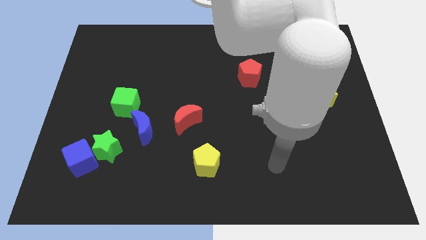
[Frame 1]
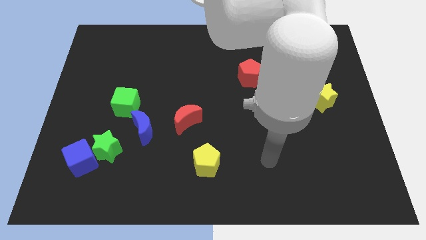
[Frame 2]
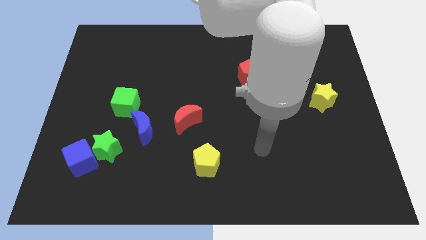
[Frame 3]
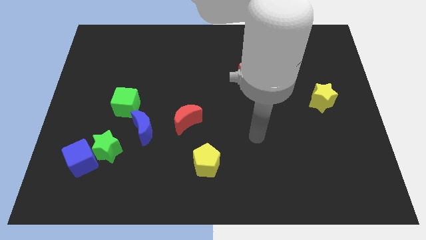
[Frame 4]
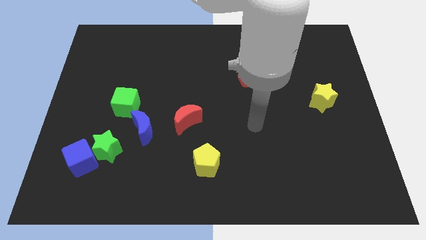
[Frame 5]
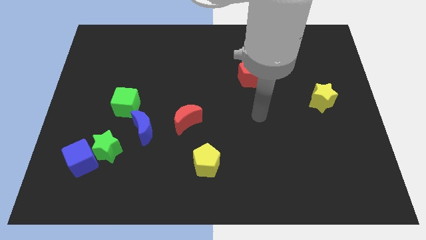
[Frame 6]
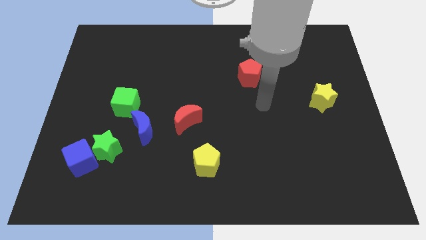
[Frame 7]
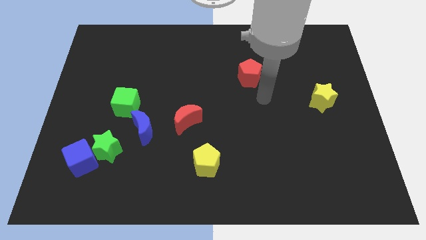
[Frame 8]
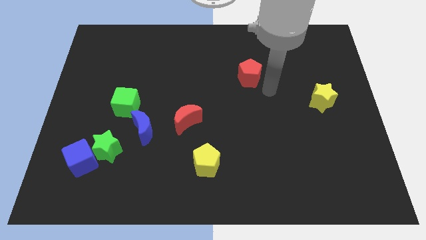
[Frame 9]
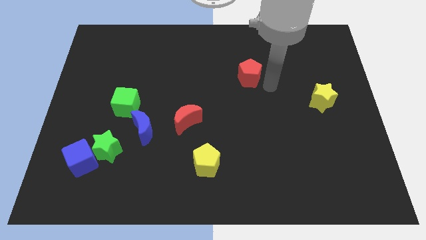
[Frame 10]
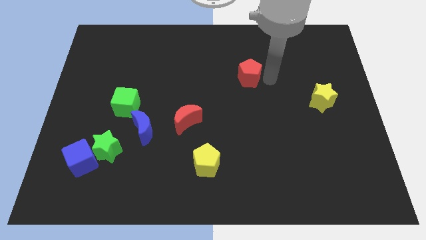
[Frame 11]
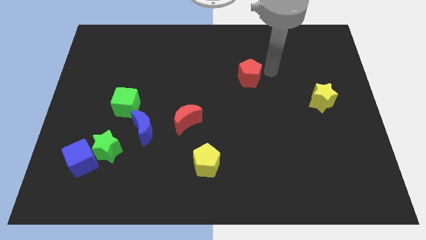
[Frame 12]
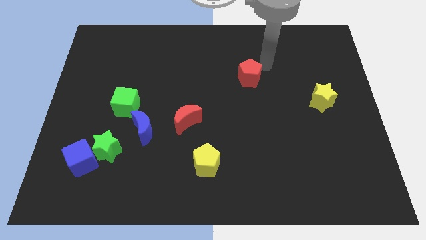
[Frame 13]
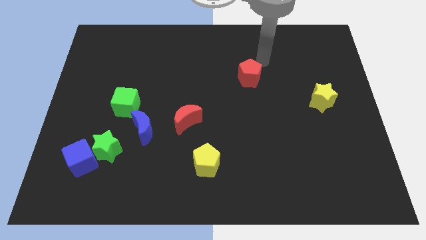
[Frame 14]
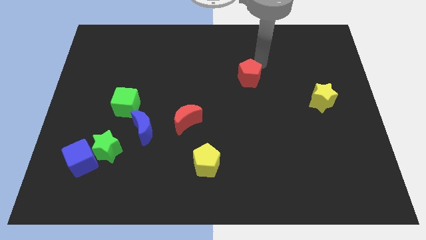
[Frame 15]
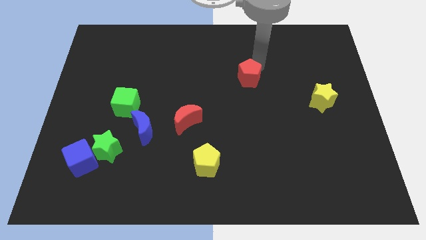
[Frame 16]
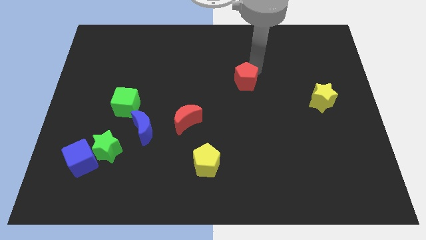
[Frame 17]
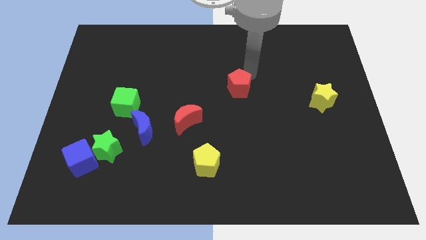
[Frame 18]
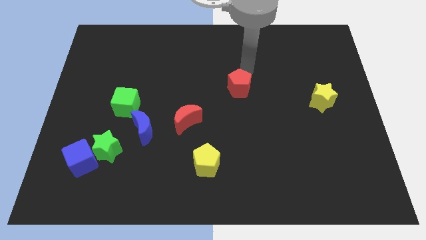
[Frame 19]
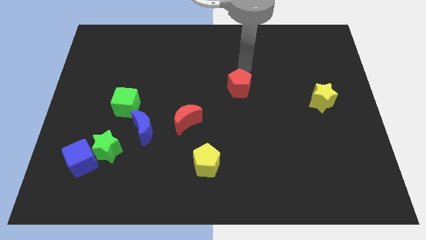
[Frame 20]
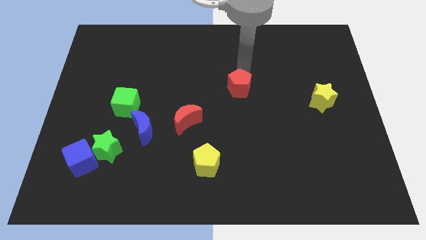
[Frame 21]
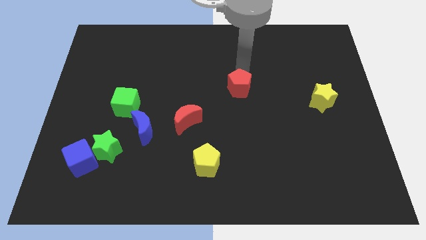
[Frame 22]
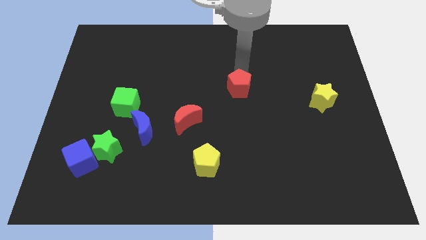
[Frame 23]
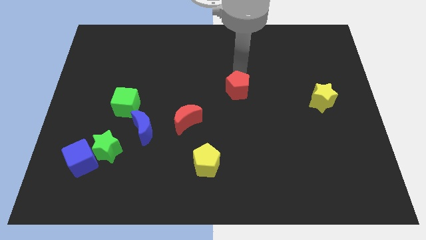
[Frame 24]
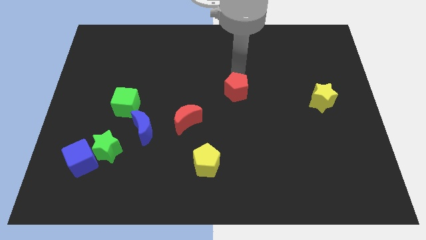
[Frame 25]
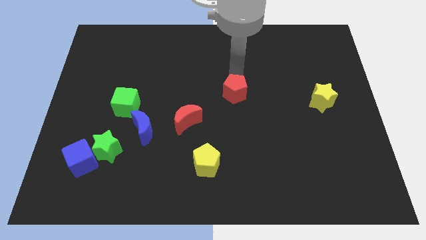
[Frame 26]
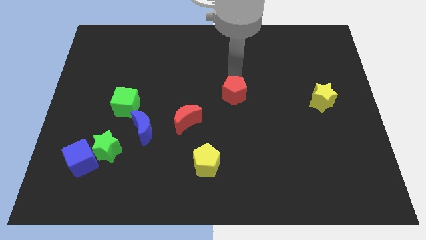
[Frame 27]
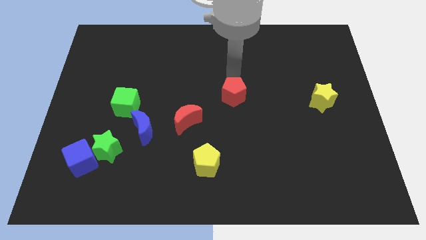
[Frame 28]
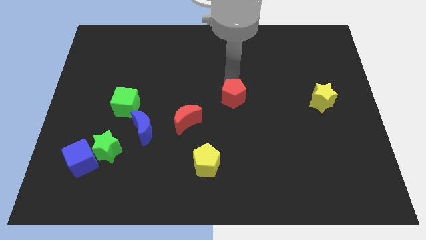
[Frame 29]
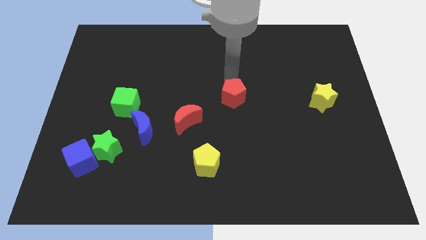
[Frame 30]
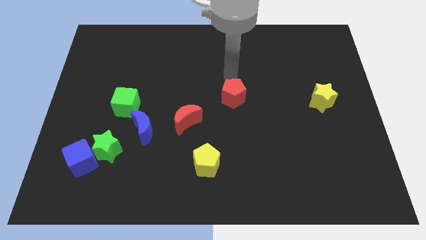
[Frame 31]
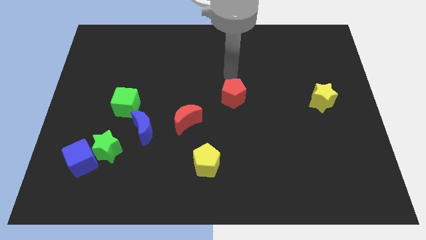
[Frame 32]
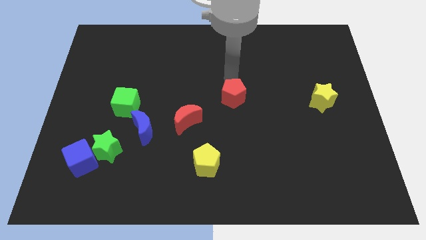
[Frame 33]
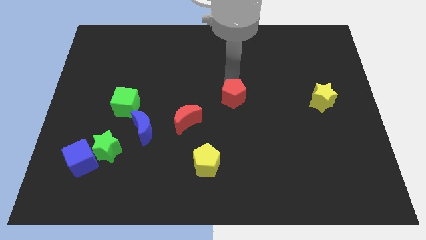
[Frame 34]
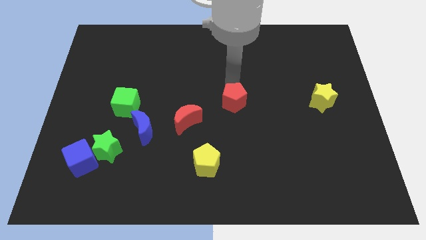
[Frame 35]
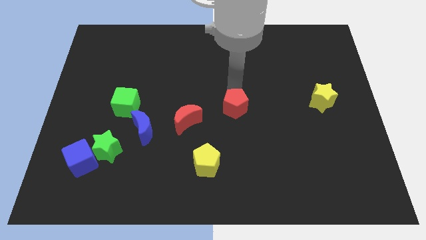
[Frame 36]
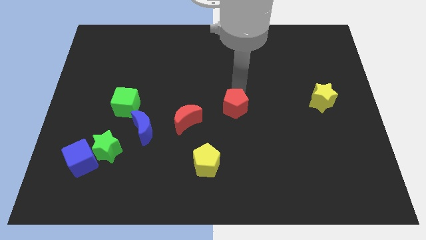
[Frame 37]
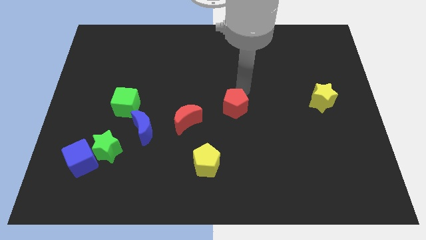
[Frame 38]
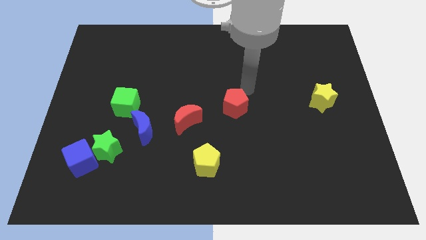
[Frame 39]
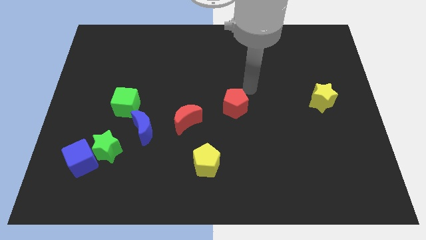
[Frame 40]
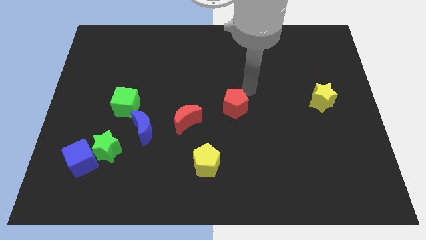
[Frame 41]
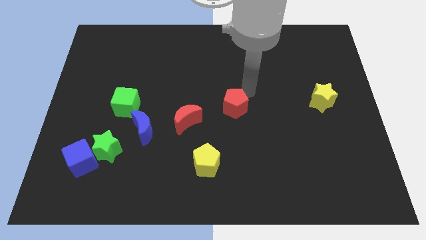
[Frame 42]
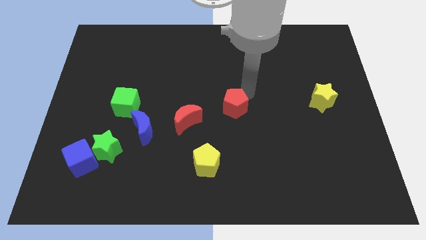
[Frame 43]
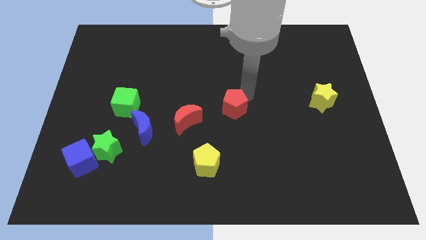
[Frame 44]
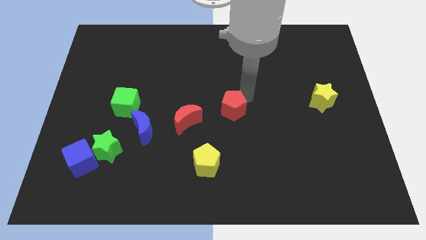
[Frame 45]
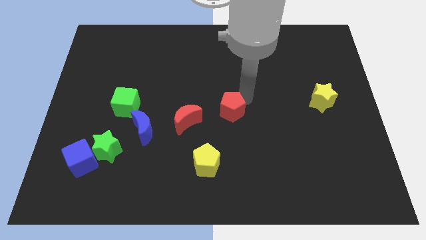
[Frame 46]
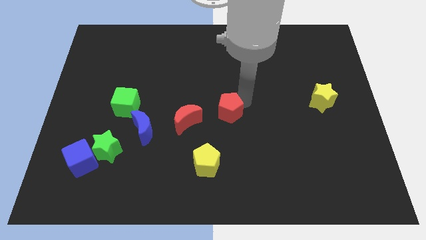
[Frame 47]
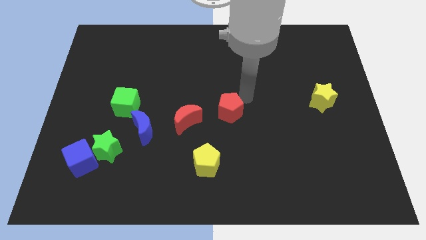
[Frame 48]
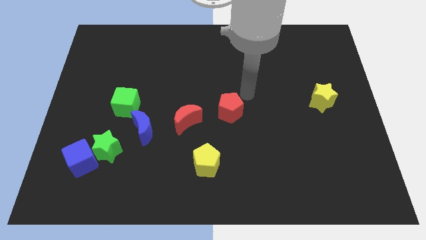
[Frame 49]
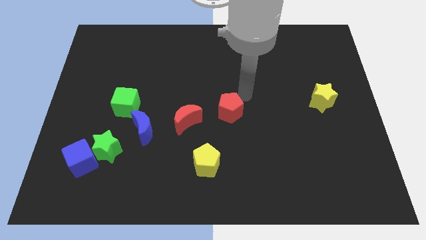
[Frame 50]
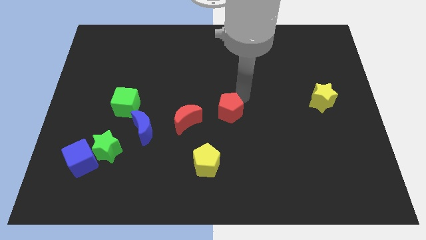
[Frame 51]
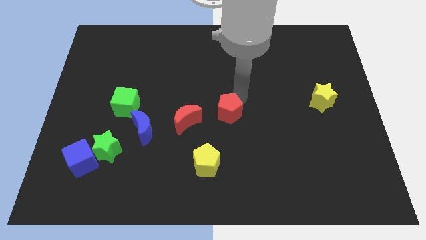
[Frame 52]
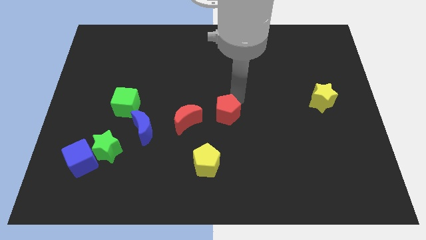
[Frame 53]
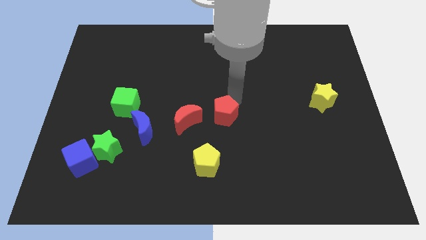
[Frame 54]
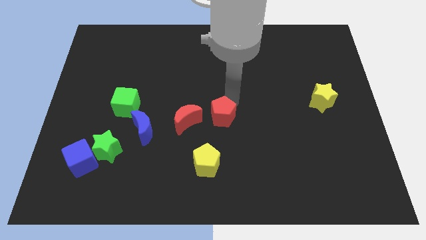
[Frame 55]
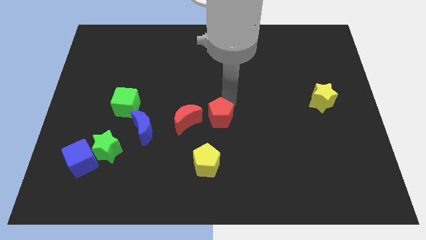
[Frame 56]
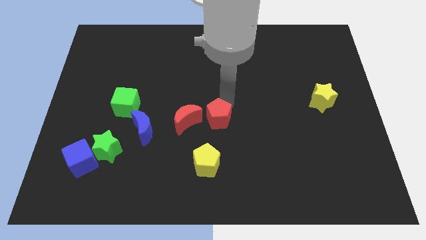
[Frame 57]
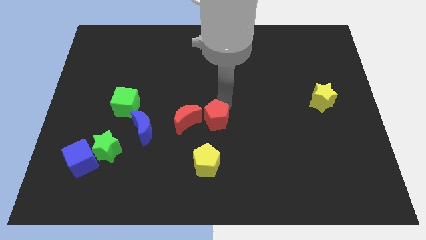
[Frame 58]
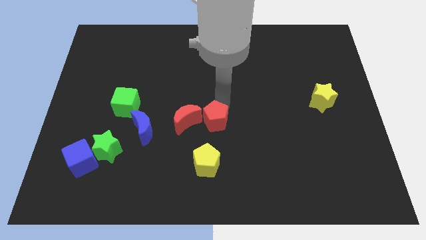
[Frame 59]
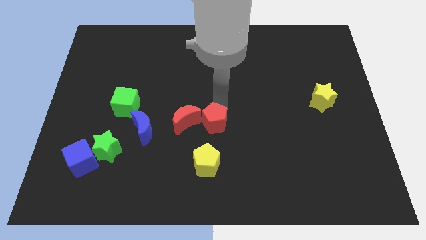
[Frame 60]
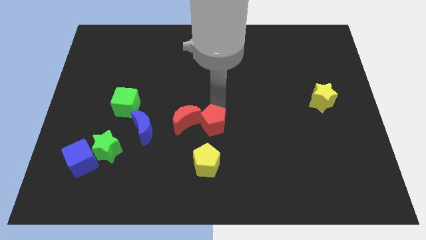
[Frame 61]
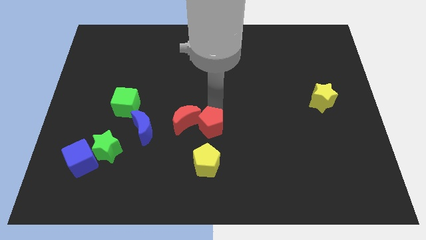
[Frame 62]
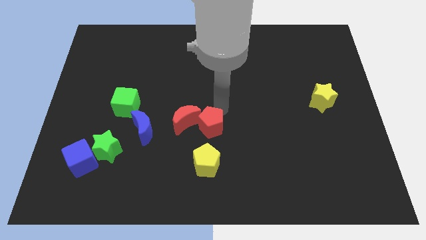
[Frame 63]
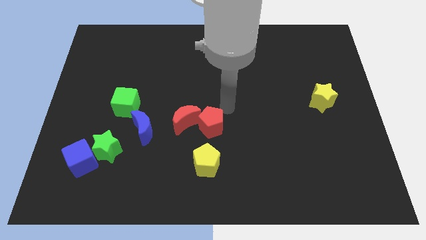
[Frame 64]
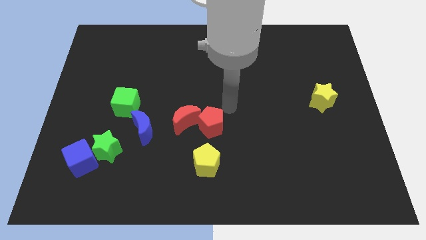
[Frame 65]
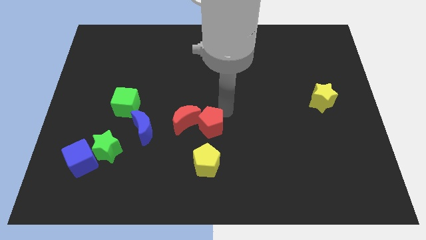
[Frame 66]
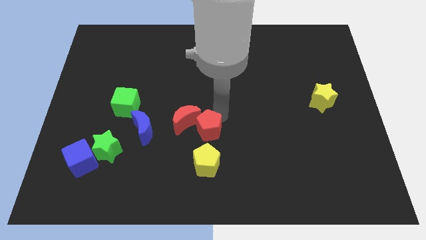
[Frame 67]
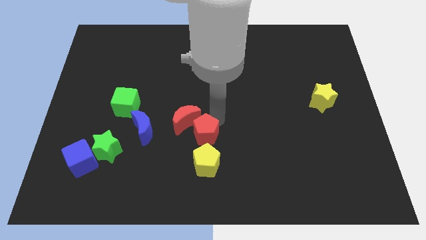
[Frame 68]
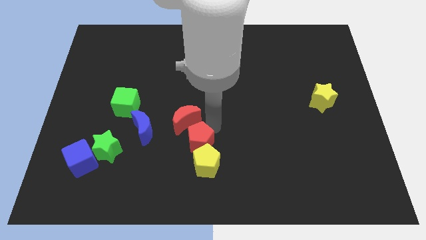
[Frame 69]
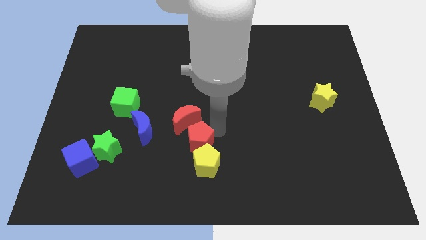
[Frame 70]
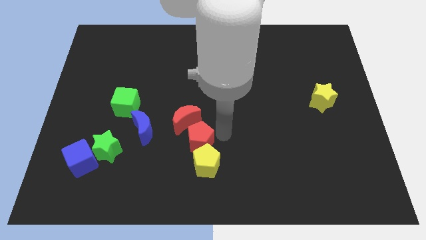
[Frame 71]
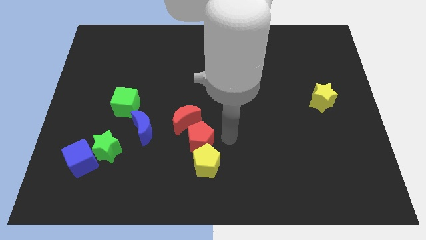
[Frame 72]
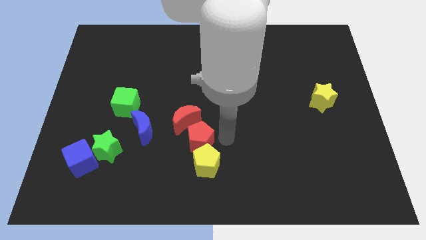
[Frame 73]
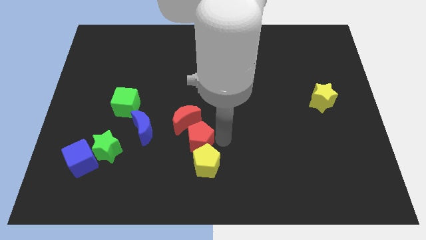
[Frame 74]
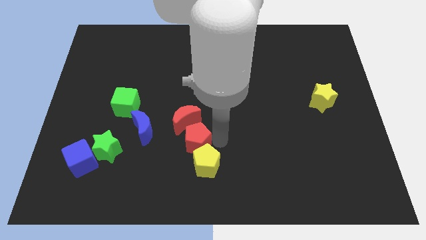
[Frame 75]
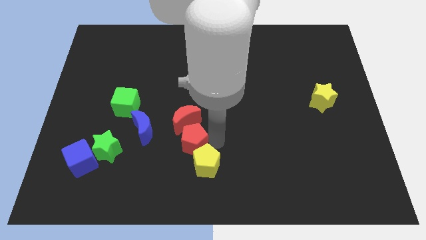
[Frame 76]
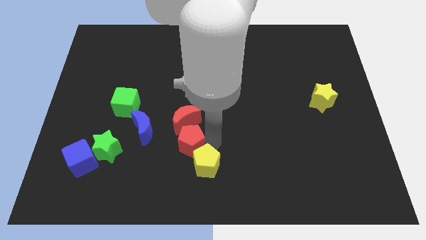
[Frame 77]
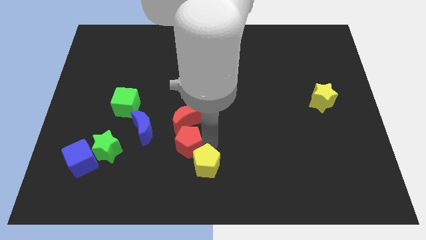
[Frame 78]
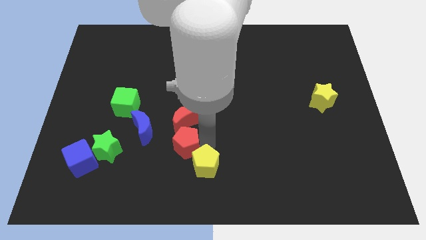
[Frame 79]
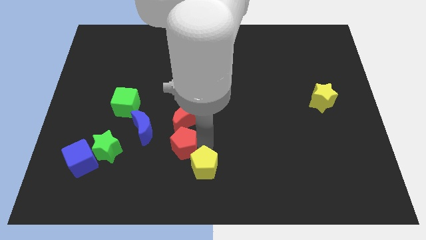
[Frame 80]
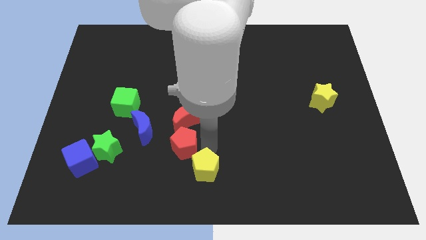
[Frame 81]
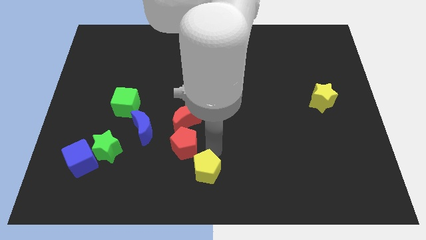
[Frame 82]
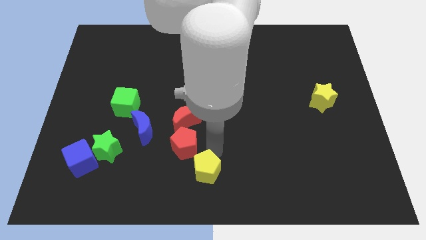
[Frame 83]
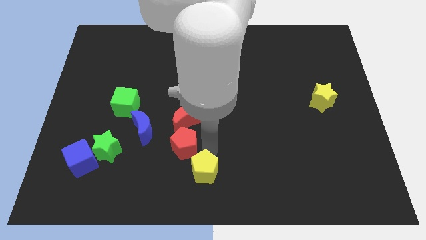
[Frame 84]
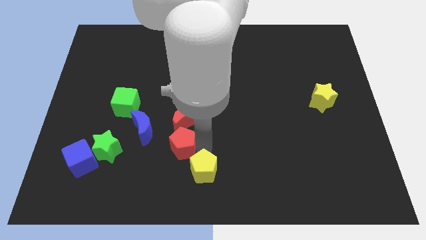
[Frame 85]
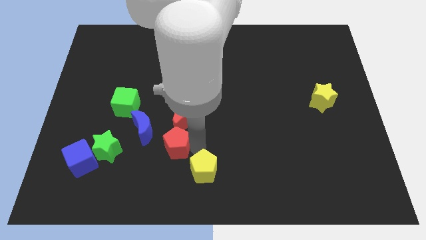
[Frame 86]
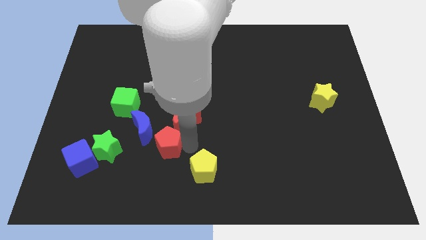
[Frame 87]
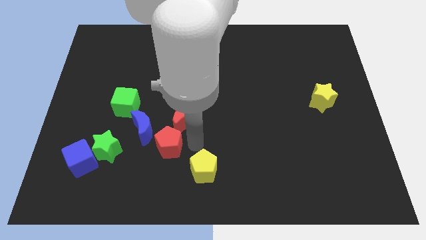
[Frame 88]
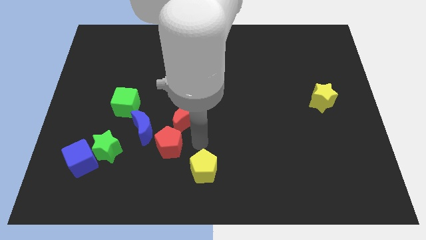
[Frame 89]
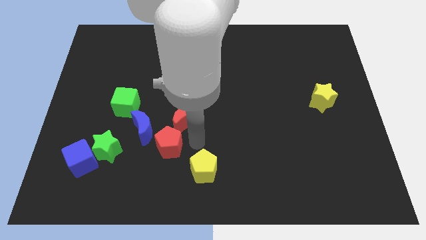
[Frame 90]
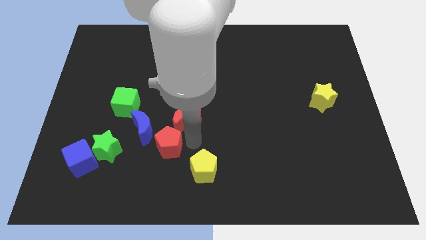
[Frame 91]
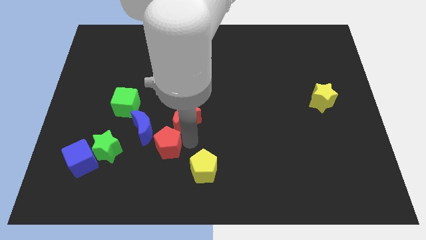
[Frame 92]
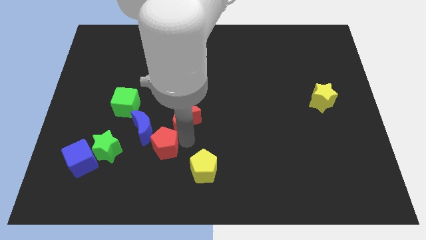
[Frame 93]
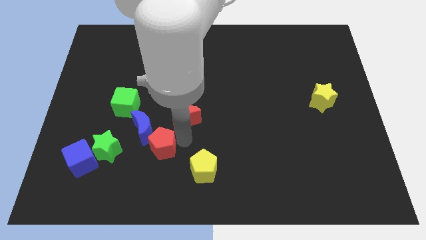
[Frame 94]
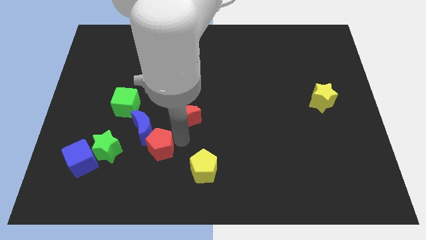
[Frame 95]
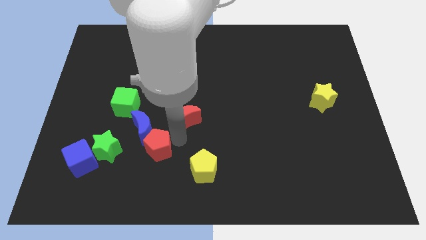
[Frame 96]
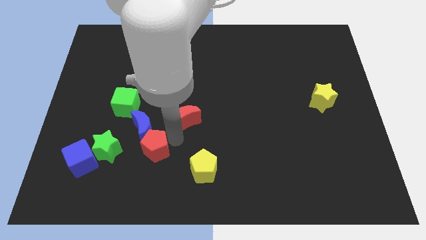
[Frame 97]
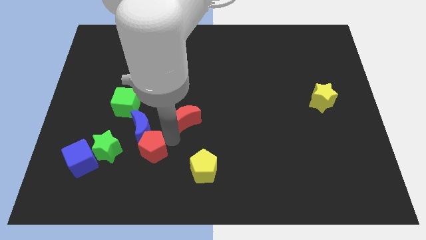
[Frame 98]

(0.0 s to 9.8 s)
move the red pentagon right of the blue cube
